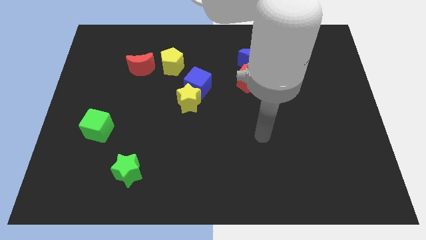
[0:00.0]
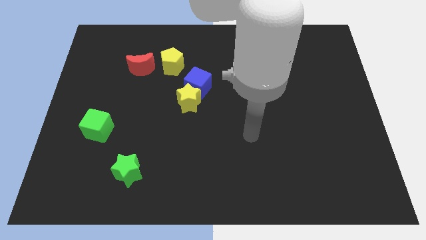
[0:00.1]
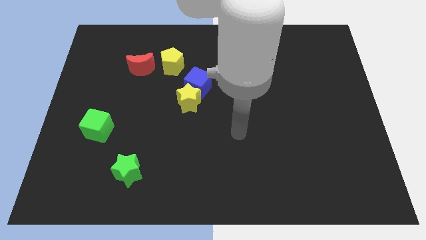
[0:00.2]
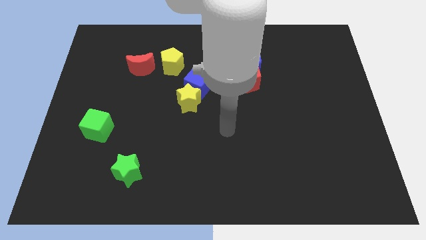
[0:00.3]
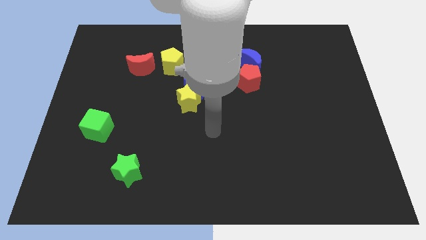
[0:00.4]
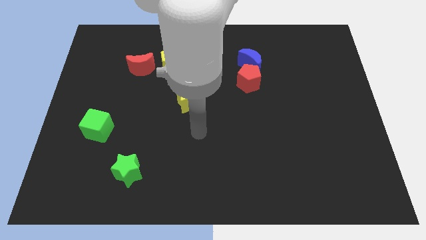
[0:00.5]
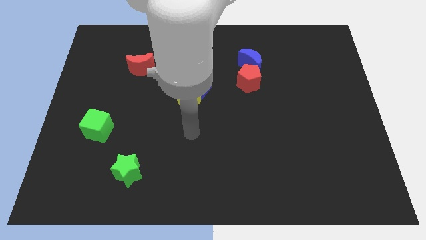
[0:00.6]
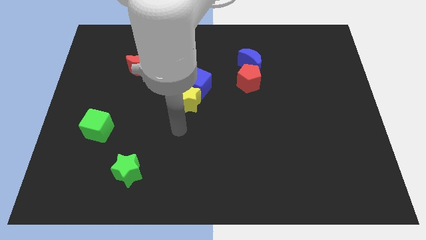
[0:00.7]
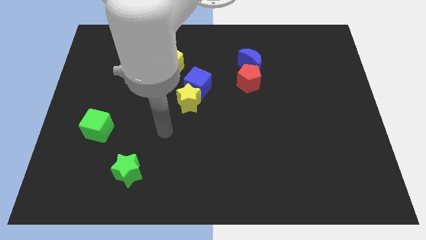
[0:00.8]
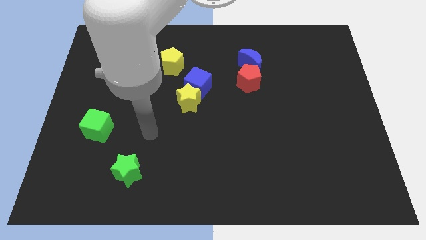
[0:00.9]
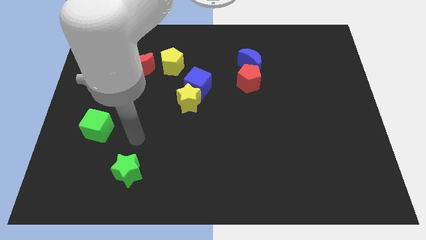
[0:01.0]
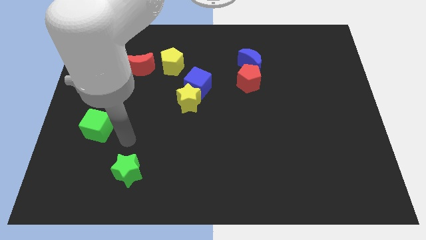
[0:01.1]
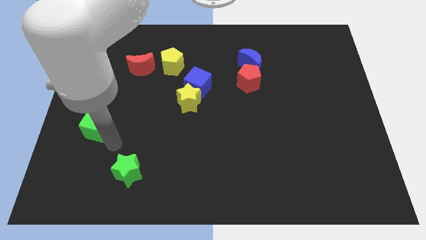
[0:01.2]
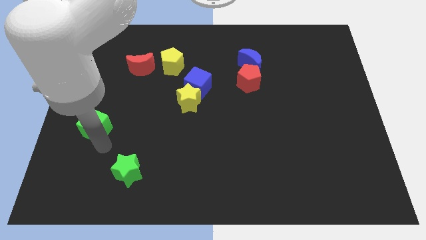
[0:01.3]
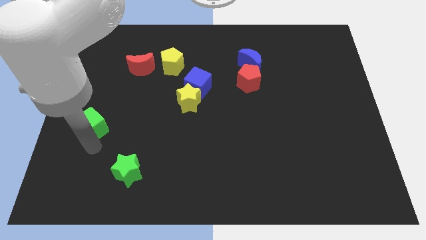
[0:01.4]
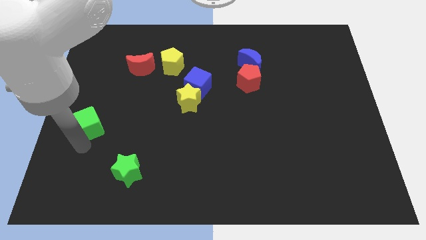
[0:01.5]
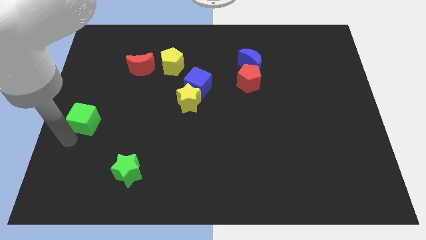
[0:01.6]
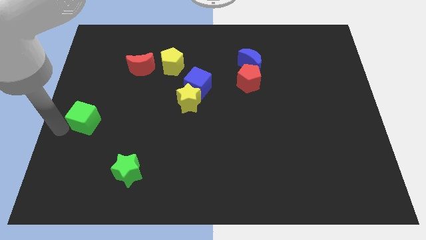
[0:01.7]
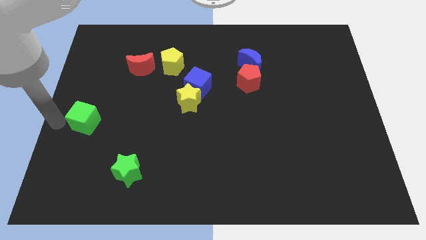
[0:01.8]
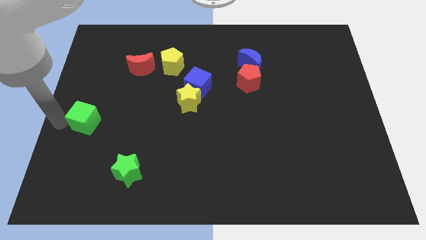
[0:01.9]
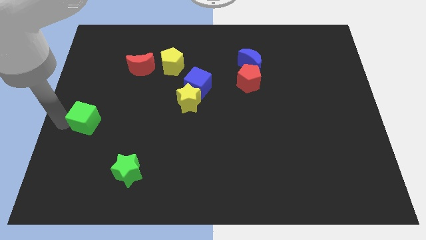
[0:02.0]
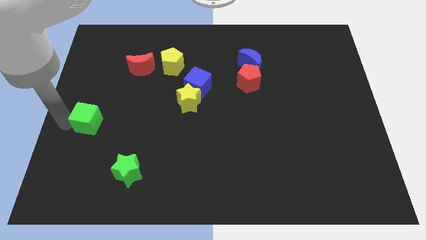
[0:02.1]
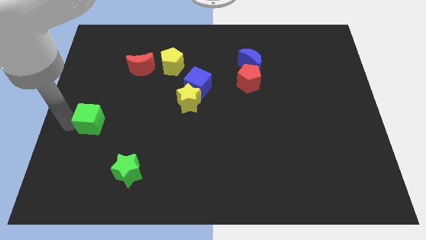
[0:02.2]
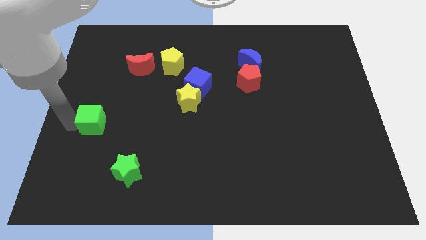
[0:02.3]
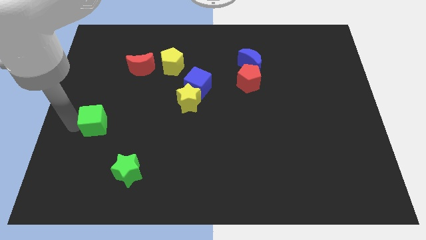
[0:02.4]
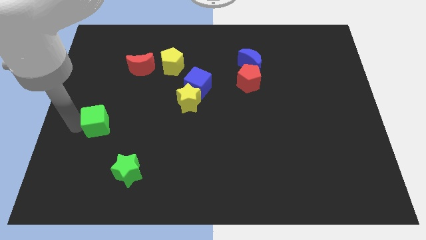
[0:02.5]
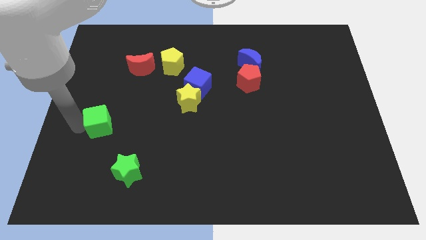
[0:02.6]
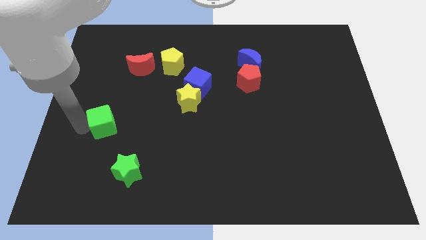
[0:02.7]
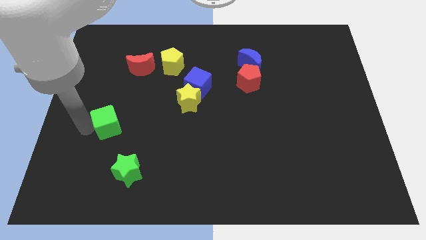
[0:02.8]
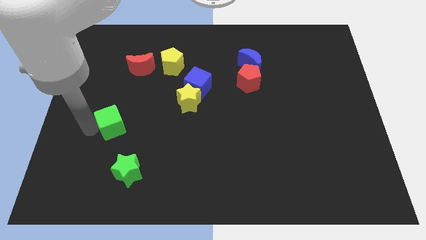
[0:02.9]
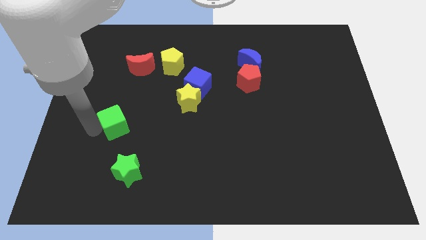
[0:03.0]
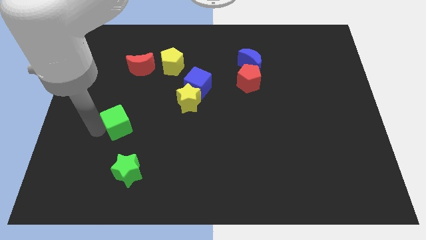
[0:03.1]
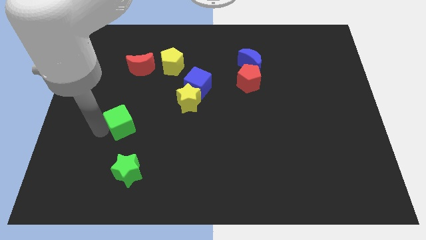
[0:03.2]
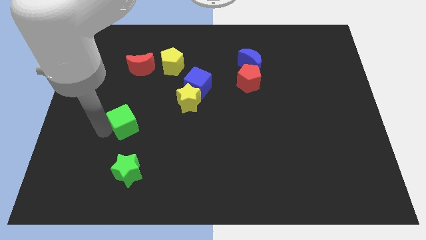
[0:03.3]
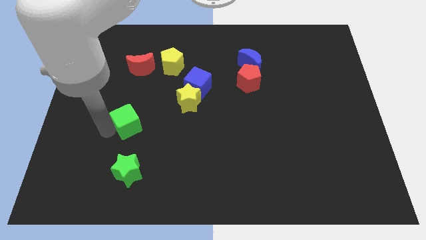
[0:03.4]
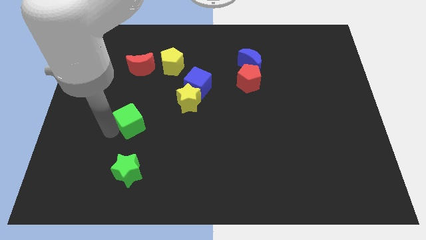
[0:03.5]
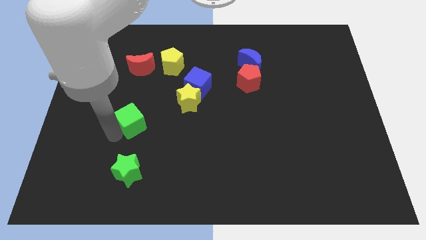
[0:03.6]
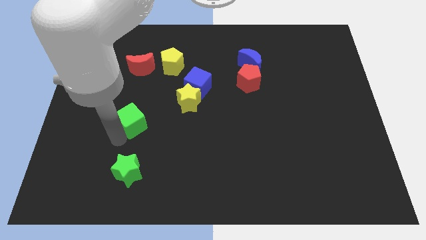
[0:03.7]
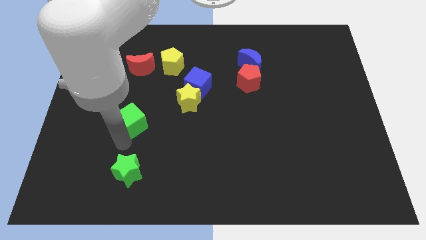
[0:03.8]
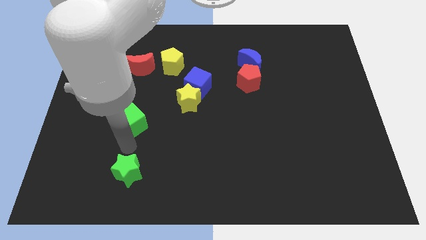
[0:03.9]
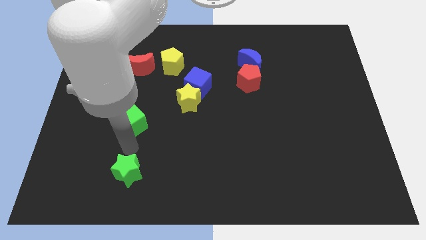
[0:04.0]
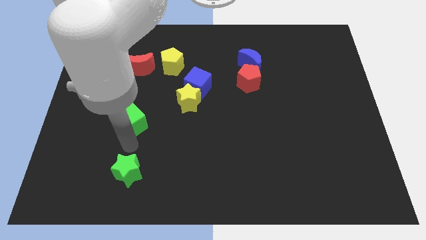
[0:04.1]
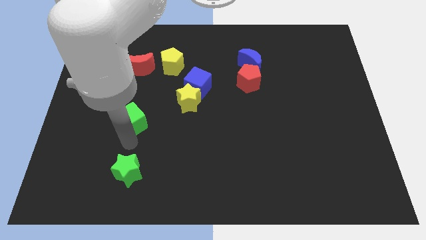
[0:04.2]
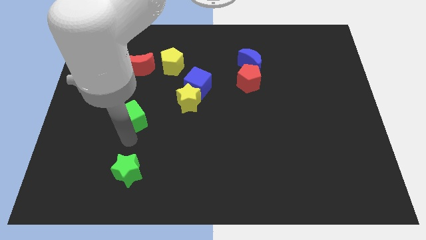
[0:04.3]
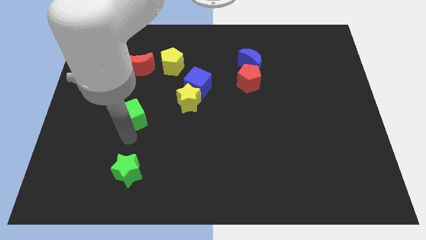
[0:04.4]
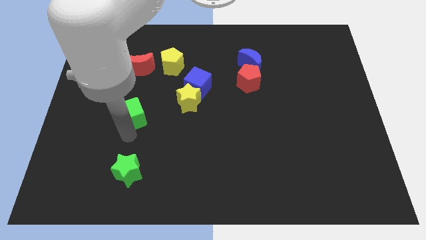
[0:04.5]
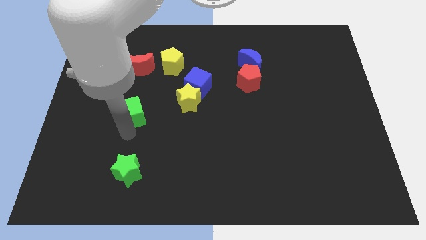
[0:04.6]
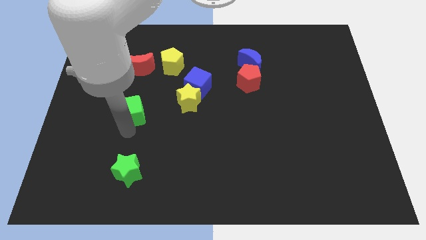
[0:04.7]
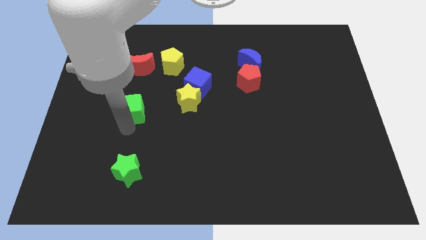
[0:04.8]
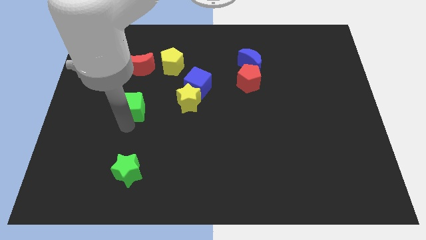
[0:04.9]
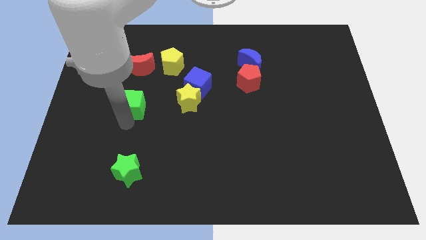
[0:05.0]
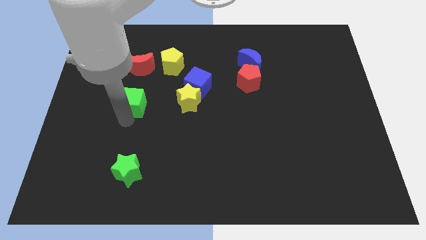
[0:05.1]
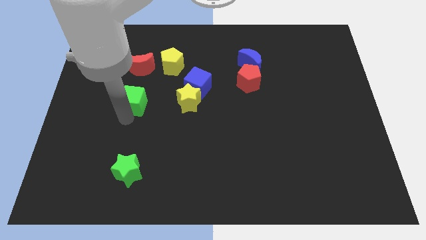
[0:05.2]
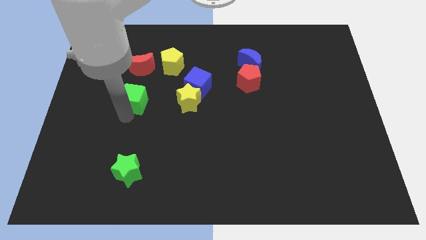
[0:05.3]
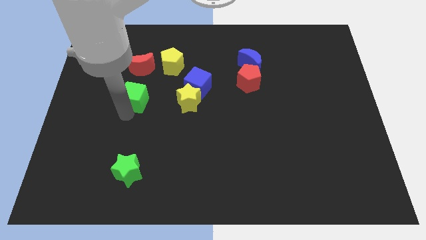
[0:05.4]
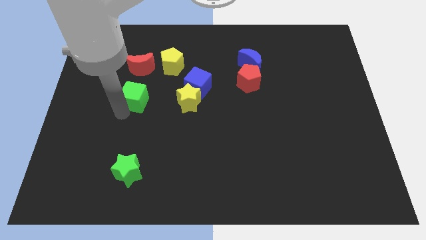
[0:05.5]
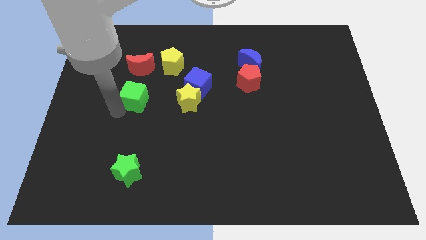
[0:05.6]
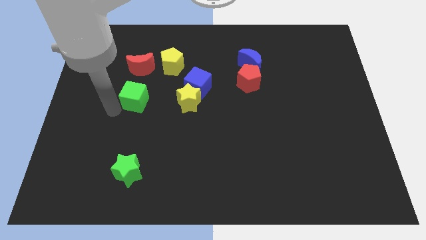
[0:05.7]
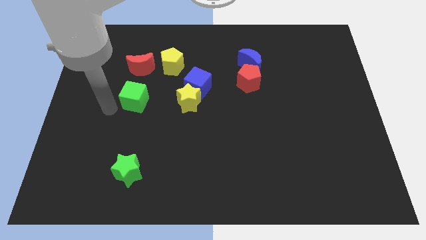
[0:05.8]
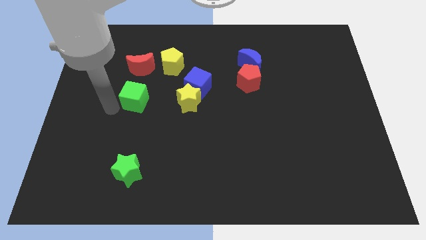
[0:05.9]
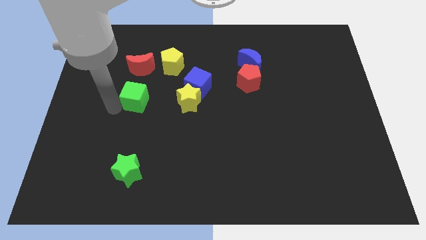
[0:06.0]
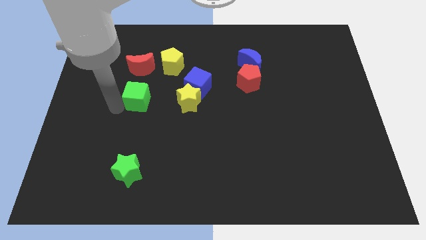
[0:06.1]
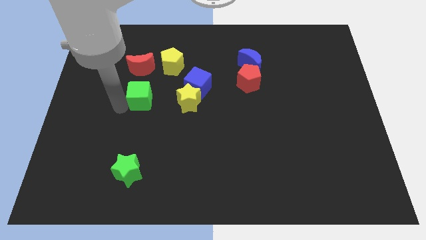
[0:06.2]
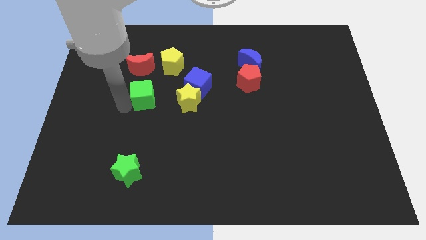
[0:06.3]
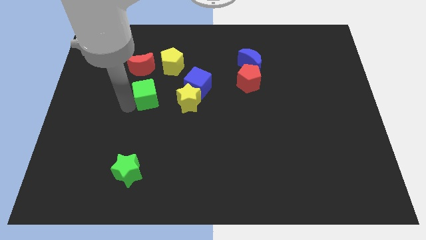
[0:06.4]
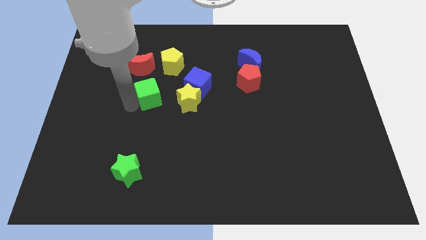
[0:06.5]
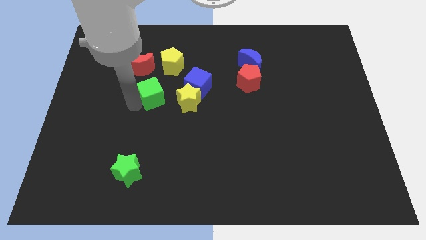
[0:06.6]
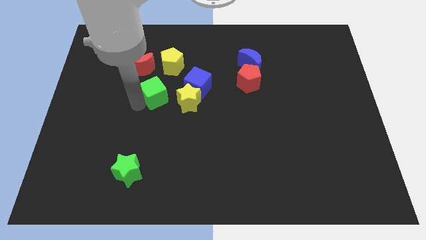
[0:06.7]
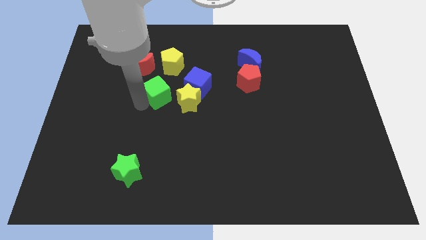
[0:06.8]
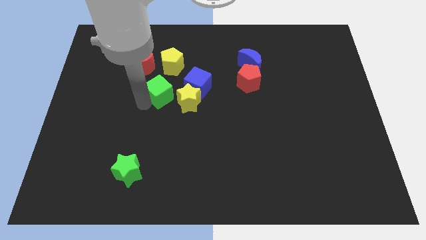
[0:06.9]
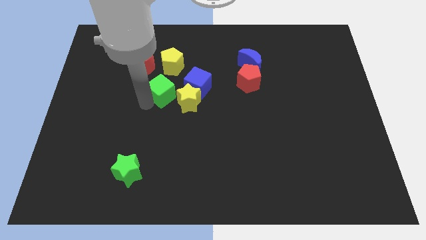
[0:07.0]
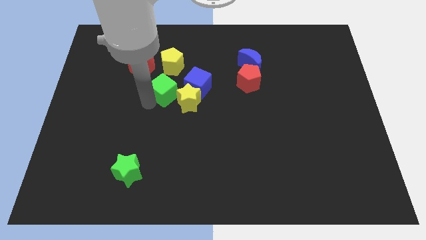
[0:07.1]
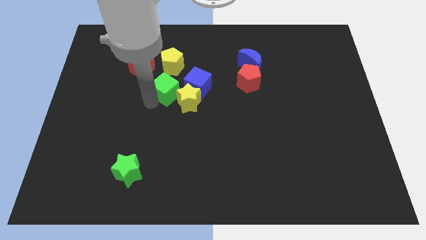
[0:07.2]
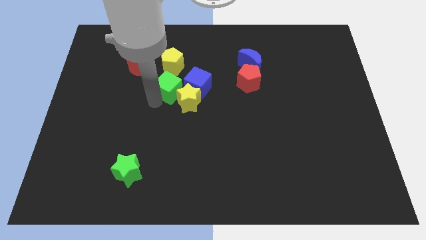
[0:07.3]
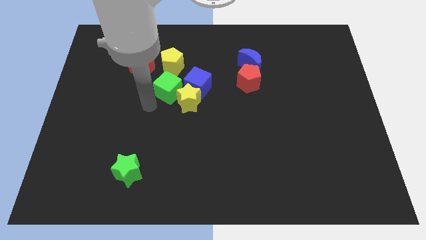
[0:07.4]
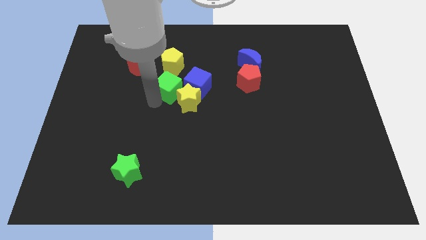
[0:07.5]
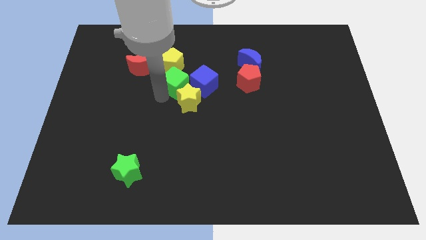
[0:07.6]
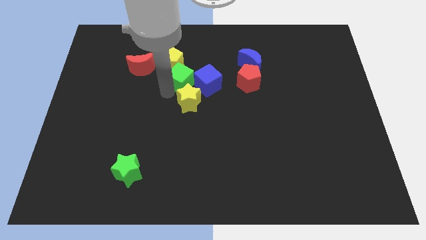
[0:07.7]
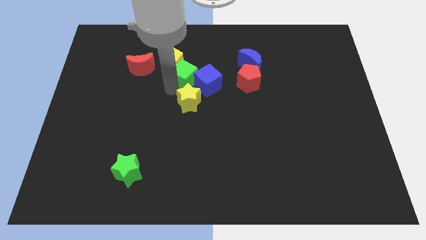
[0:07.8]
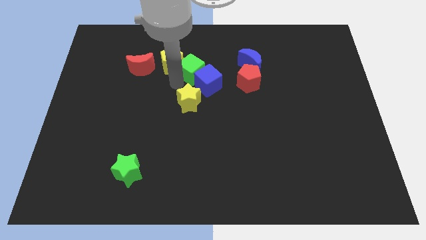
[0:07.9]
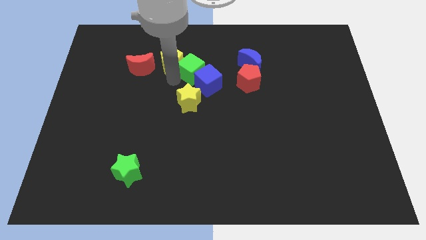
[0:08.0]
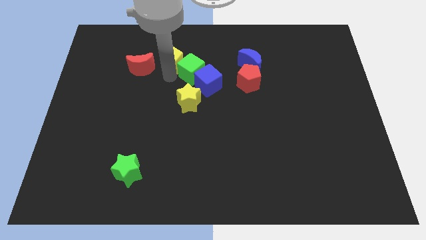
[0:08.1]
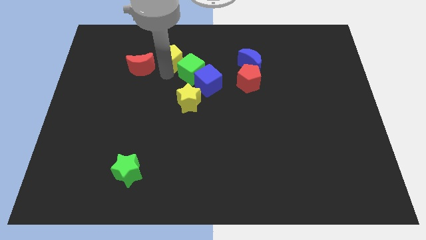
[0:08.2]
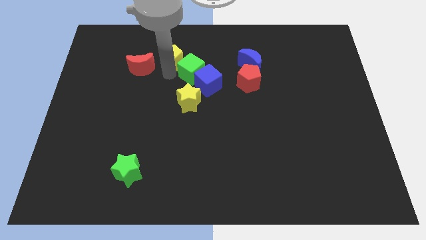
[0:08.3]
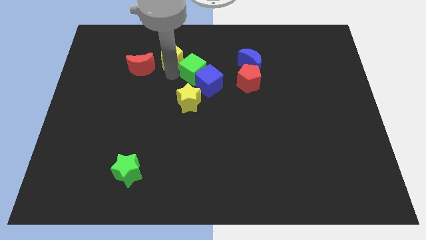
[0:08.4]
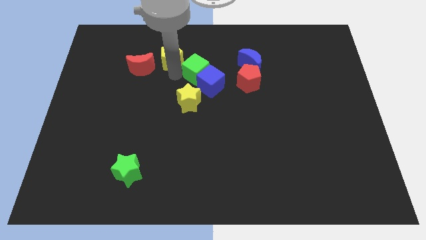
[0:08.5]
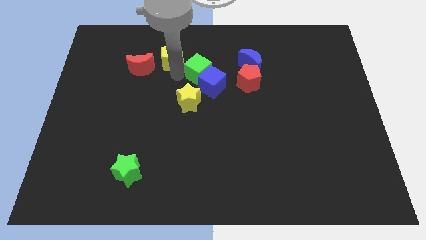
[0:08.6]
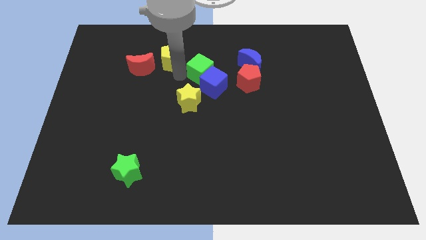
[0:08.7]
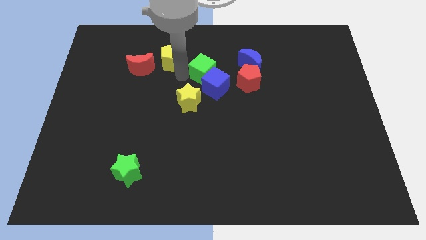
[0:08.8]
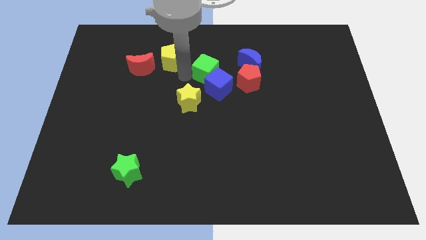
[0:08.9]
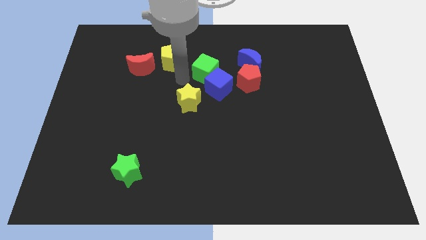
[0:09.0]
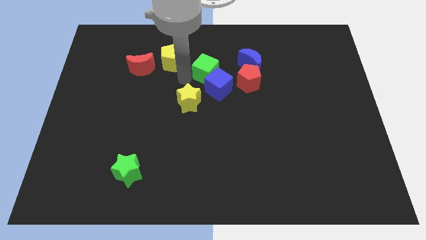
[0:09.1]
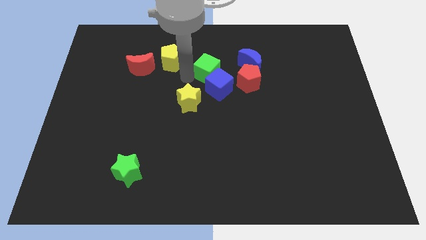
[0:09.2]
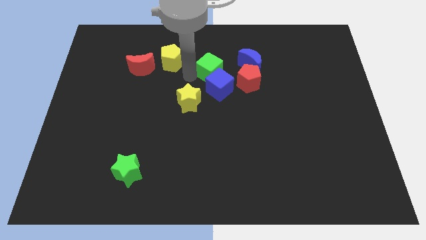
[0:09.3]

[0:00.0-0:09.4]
move the green cube to the top left of the red pentagon
